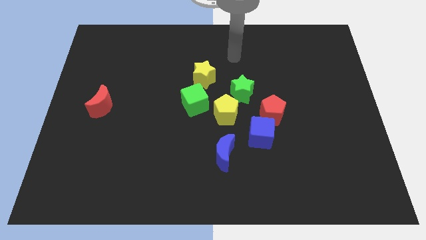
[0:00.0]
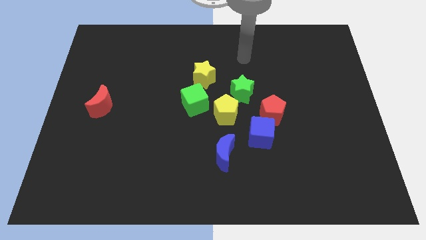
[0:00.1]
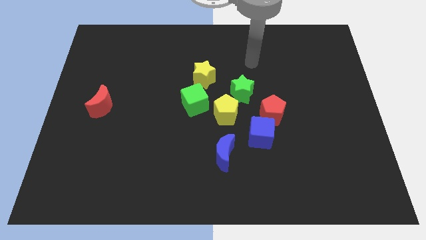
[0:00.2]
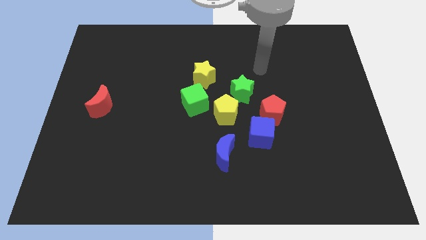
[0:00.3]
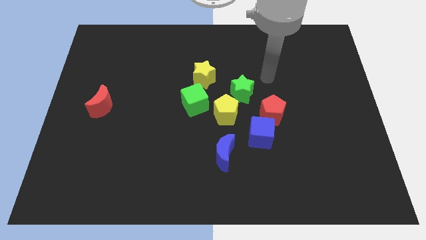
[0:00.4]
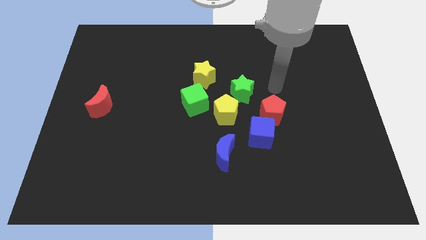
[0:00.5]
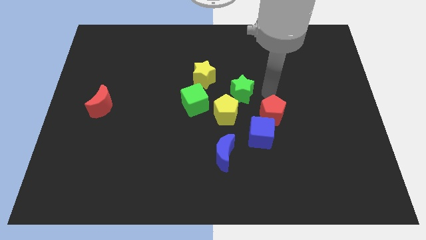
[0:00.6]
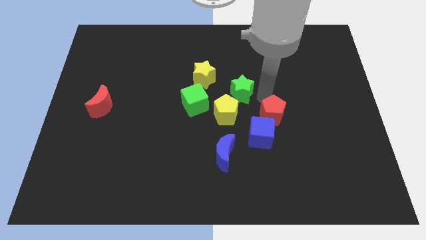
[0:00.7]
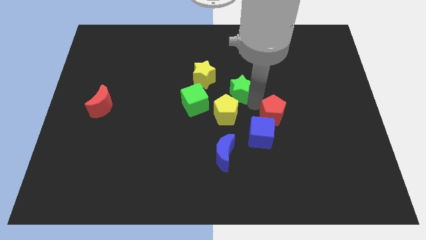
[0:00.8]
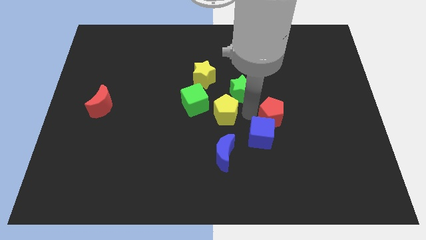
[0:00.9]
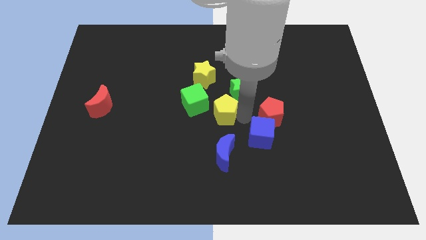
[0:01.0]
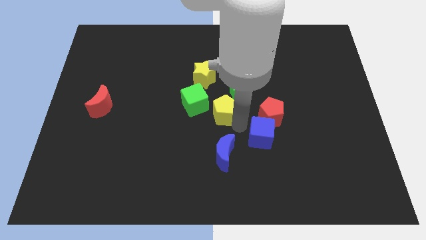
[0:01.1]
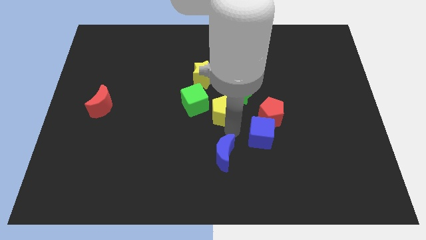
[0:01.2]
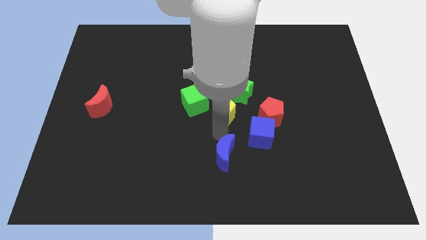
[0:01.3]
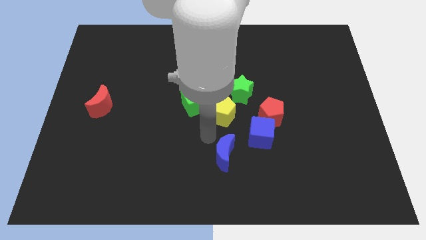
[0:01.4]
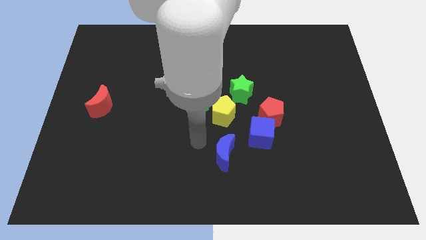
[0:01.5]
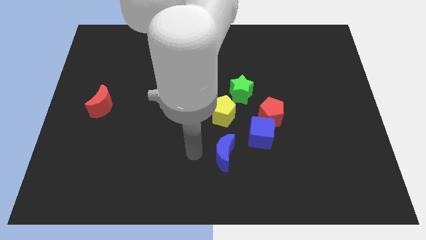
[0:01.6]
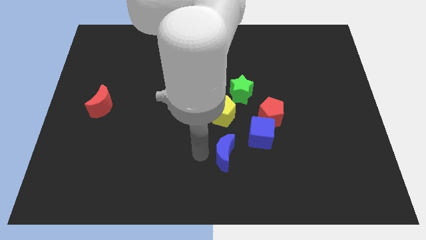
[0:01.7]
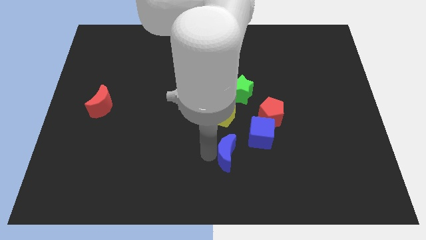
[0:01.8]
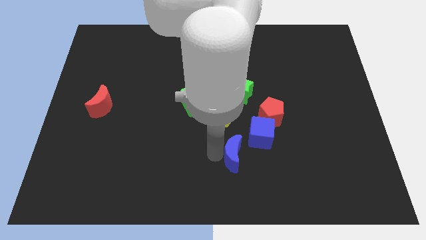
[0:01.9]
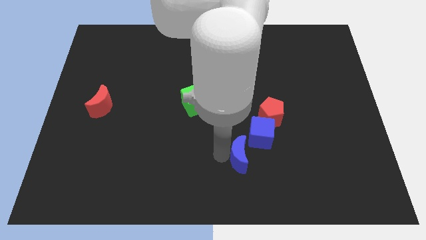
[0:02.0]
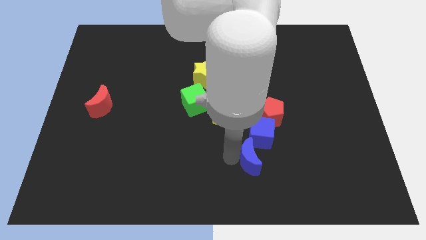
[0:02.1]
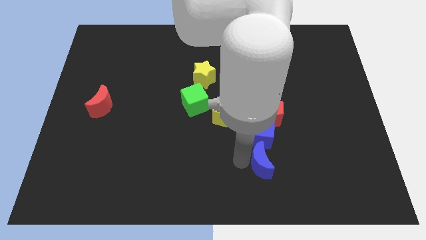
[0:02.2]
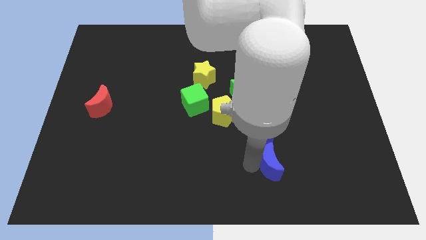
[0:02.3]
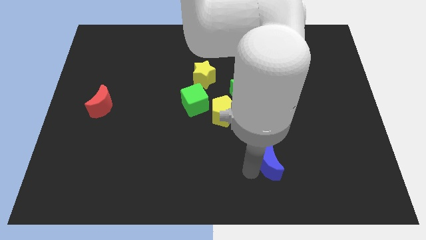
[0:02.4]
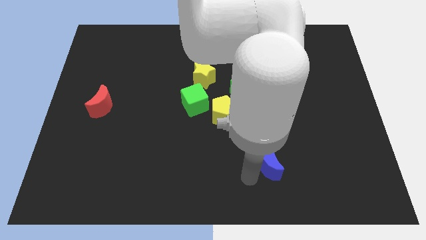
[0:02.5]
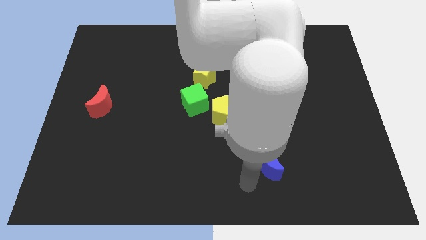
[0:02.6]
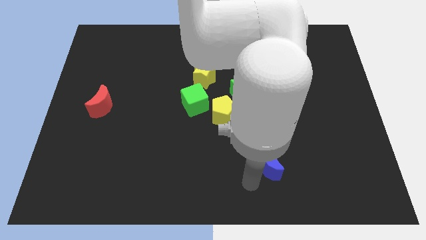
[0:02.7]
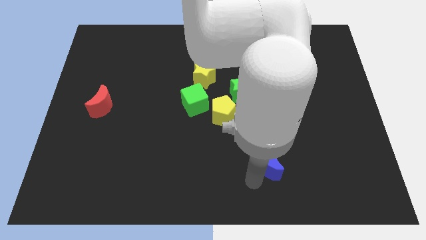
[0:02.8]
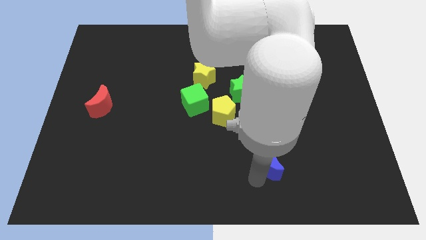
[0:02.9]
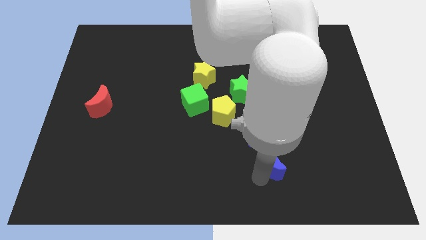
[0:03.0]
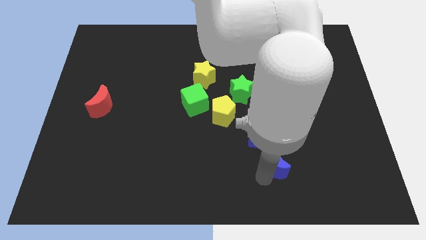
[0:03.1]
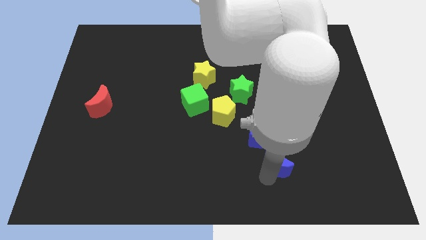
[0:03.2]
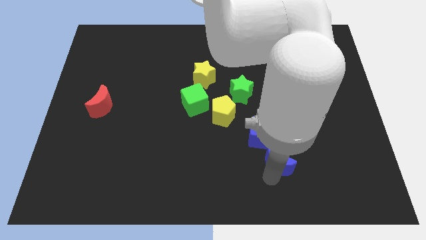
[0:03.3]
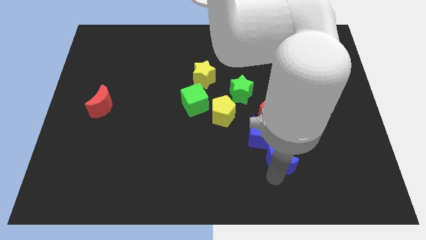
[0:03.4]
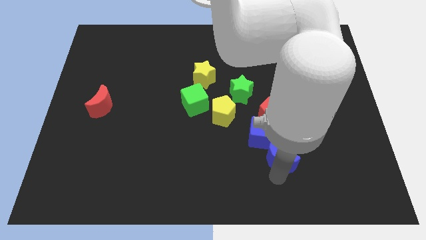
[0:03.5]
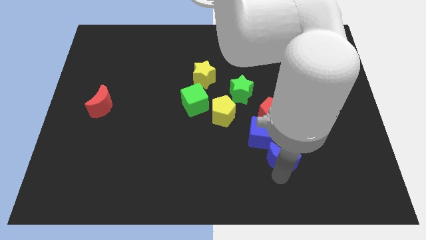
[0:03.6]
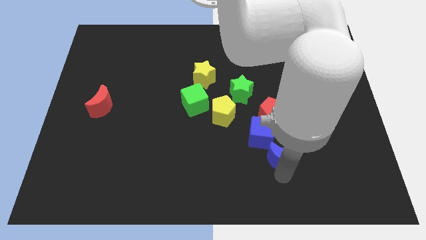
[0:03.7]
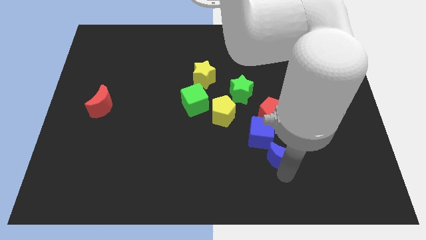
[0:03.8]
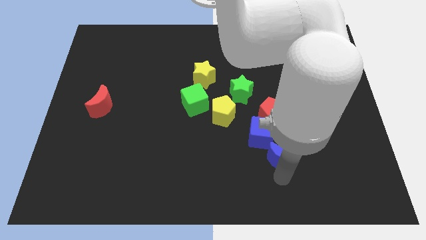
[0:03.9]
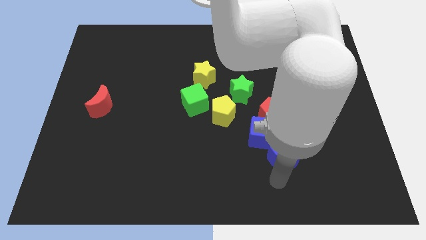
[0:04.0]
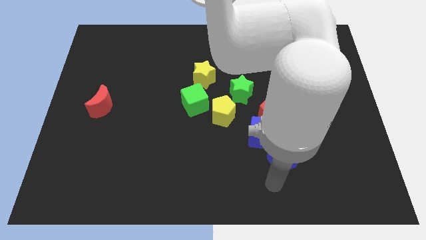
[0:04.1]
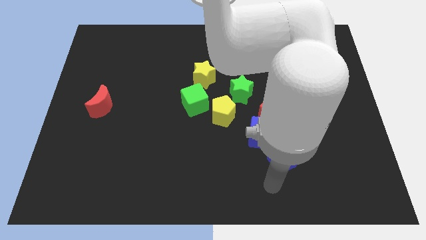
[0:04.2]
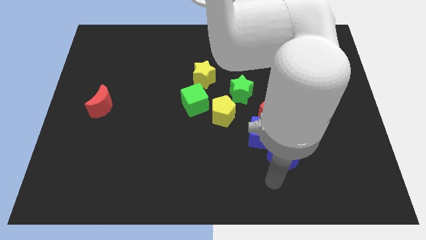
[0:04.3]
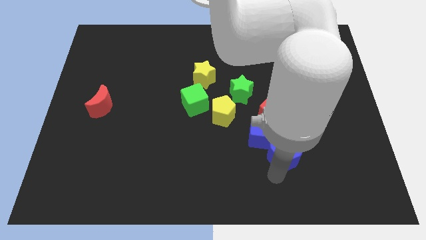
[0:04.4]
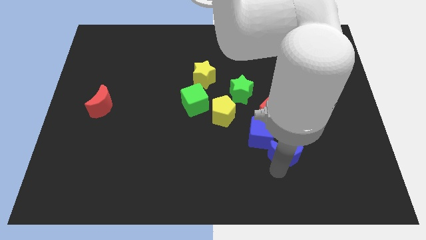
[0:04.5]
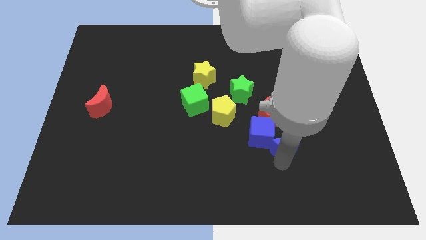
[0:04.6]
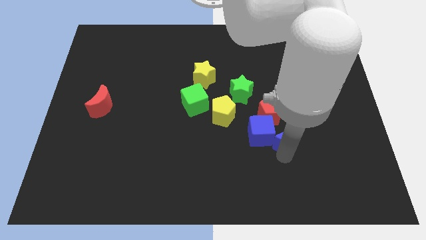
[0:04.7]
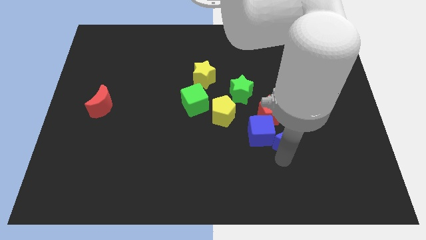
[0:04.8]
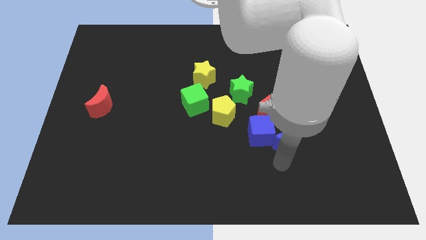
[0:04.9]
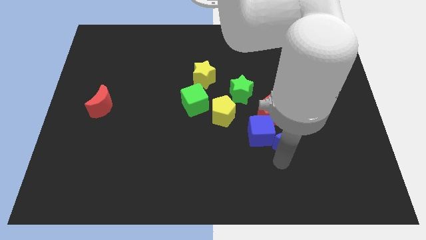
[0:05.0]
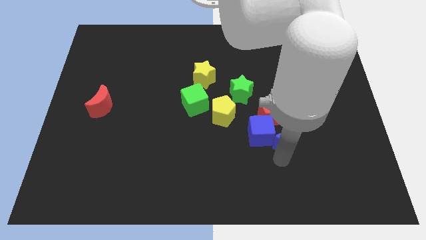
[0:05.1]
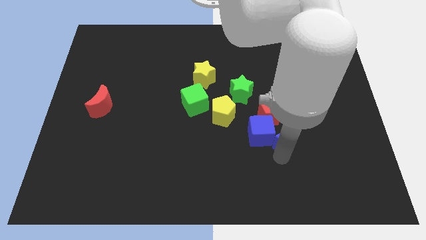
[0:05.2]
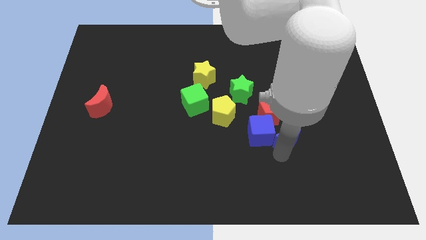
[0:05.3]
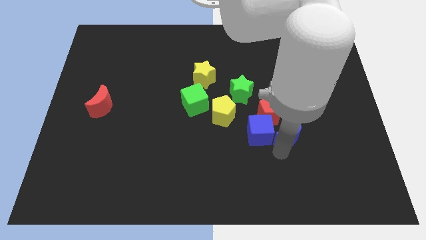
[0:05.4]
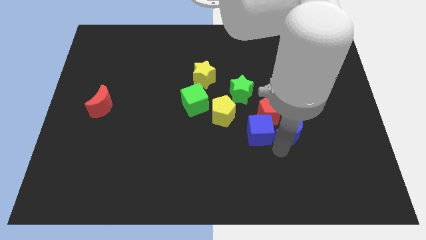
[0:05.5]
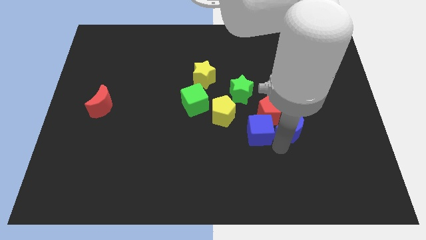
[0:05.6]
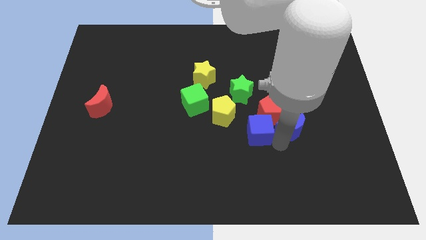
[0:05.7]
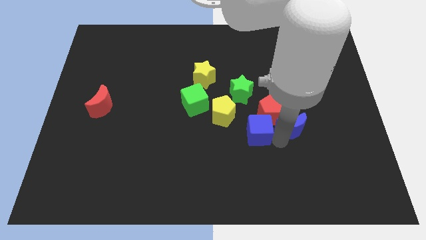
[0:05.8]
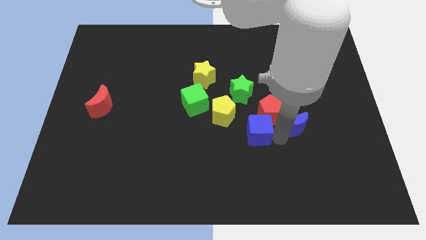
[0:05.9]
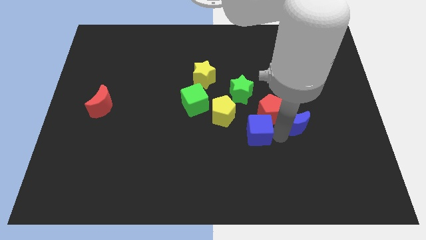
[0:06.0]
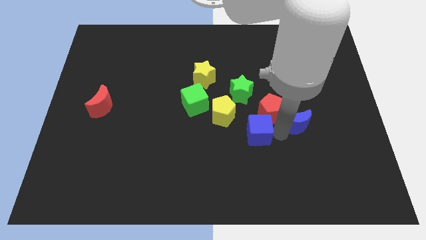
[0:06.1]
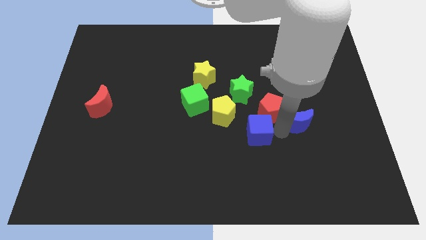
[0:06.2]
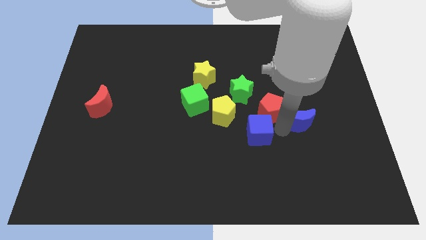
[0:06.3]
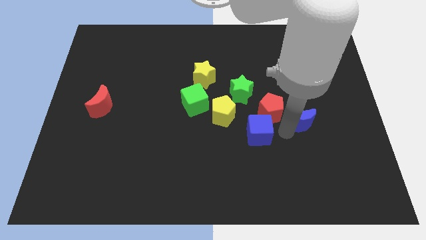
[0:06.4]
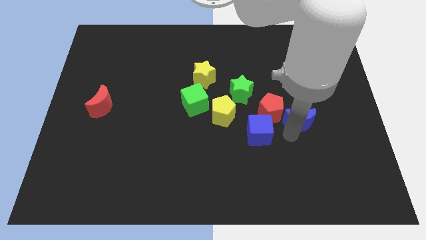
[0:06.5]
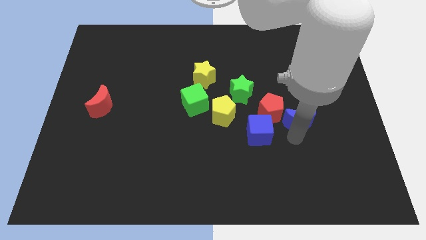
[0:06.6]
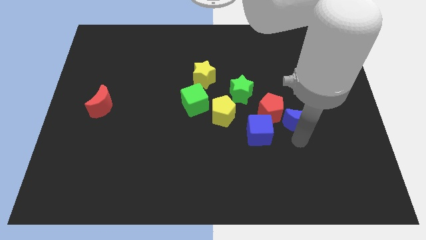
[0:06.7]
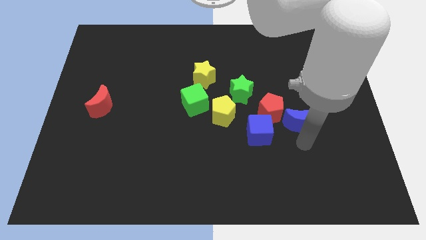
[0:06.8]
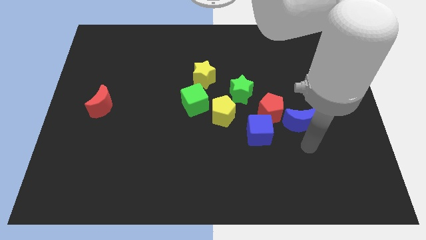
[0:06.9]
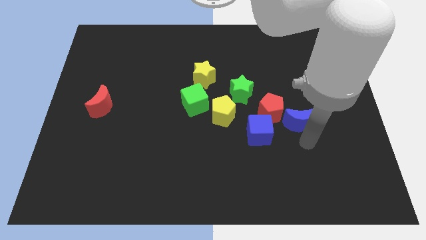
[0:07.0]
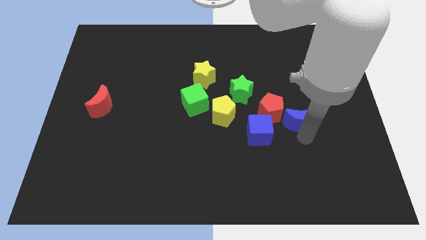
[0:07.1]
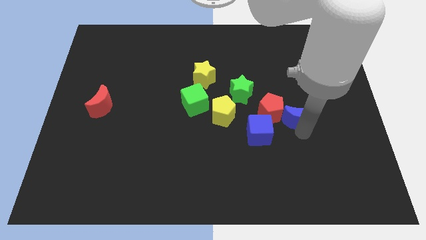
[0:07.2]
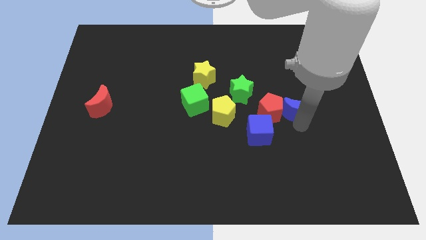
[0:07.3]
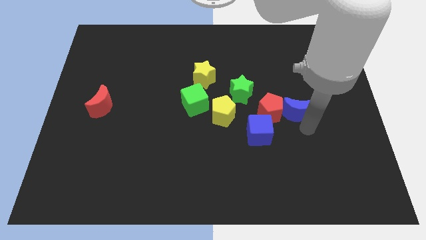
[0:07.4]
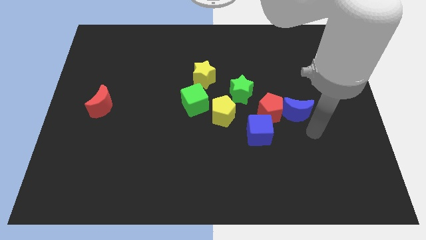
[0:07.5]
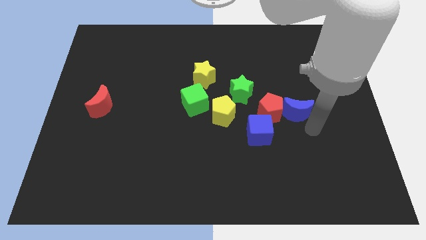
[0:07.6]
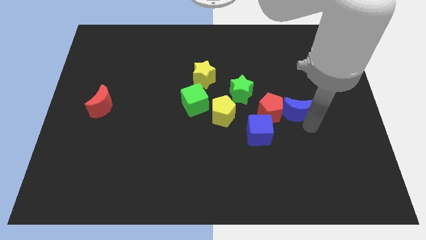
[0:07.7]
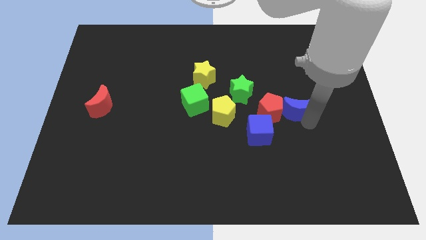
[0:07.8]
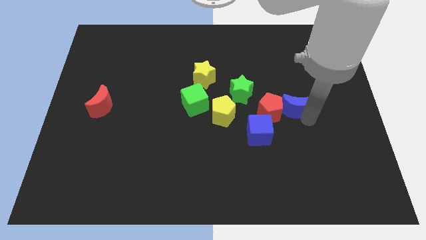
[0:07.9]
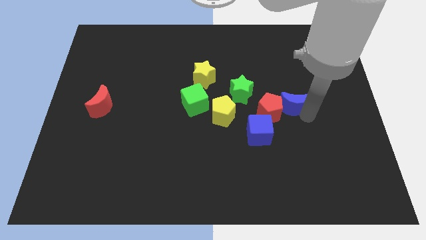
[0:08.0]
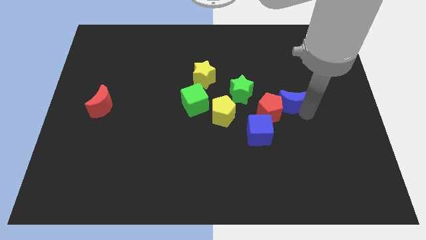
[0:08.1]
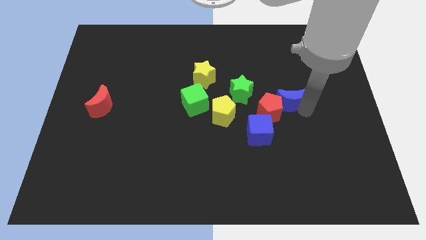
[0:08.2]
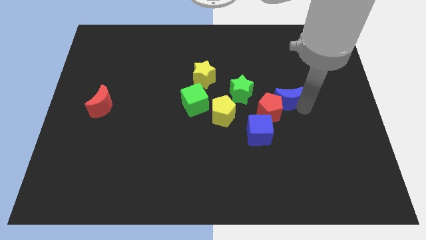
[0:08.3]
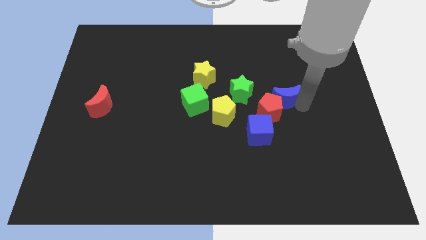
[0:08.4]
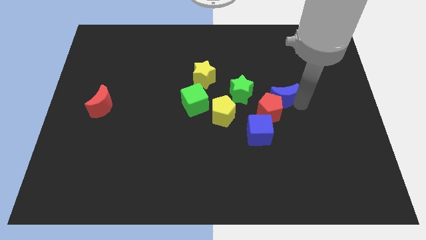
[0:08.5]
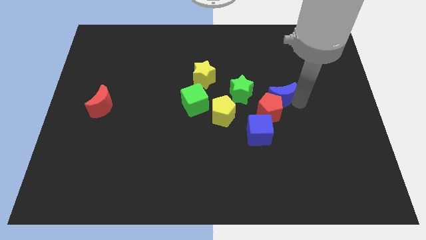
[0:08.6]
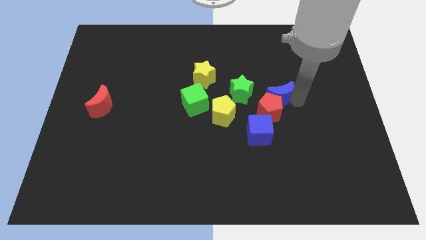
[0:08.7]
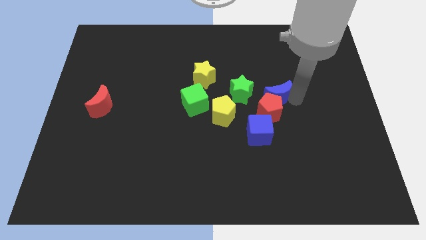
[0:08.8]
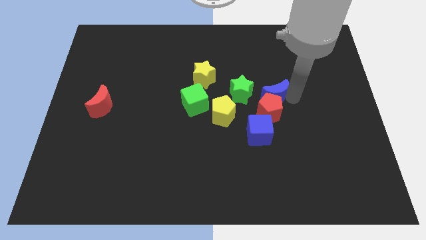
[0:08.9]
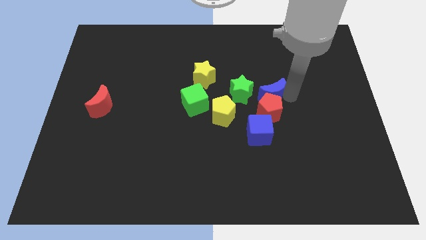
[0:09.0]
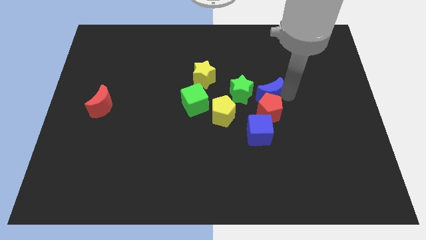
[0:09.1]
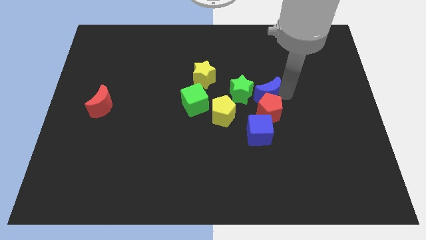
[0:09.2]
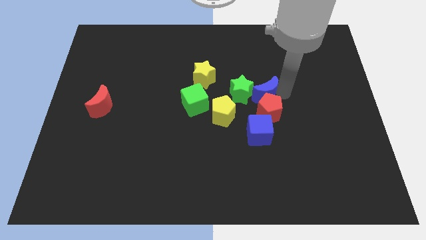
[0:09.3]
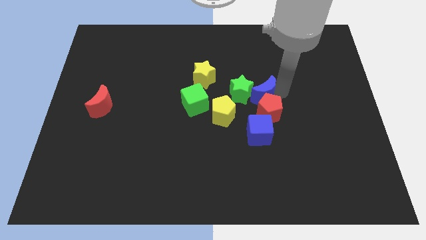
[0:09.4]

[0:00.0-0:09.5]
move the blue moon to the center
